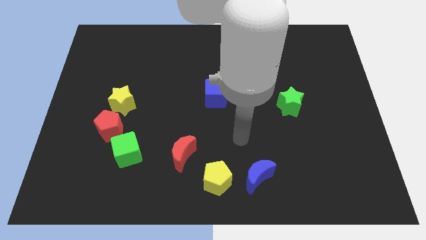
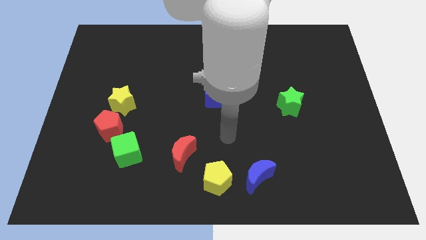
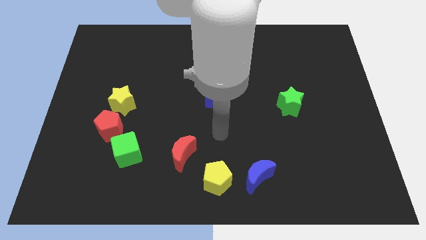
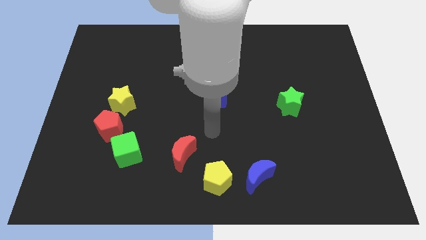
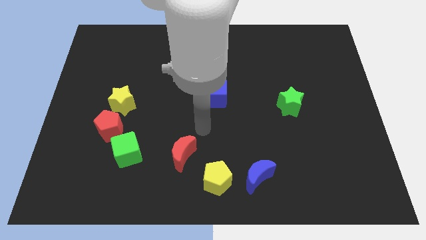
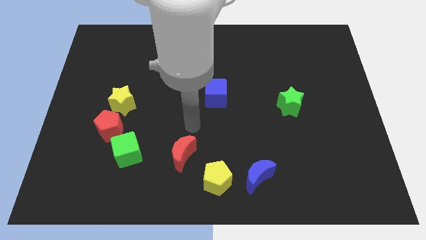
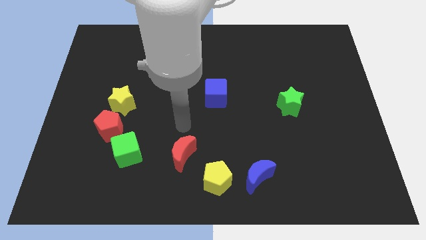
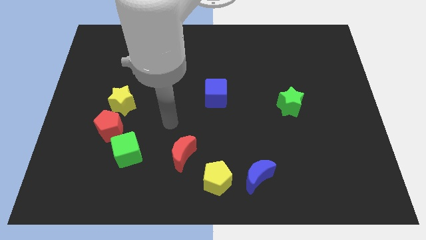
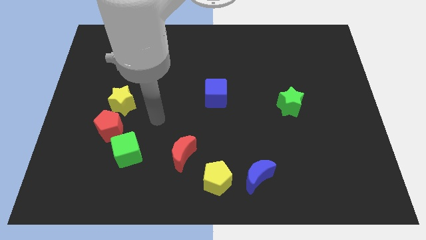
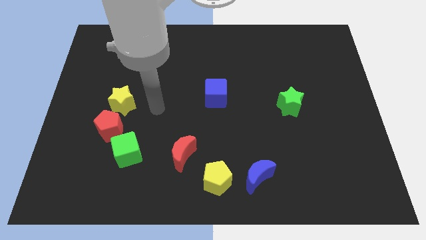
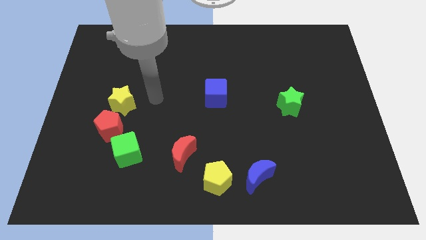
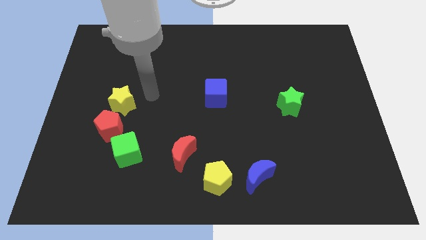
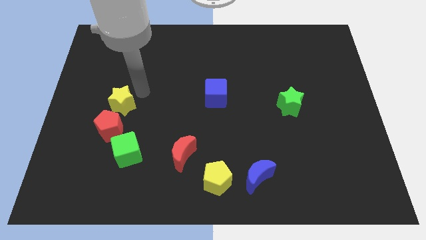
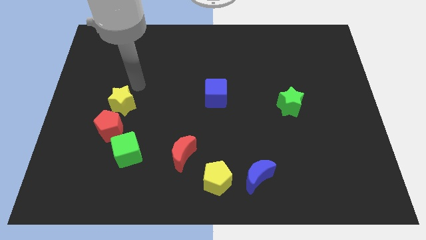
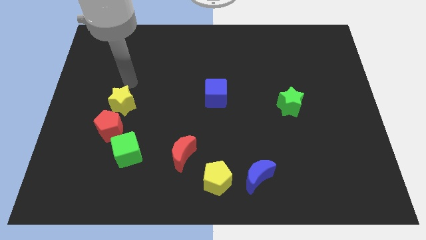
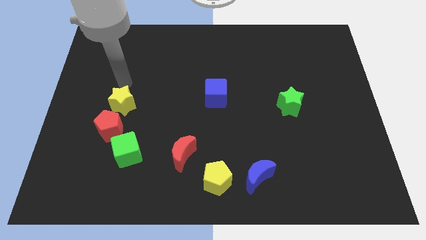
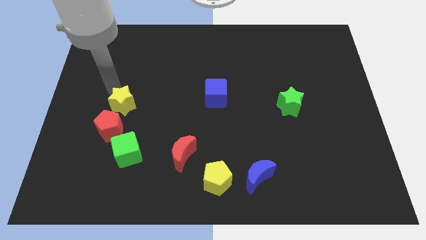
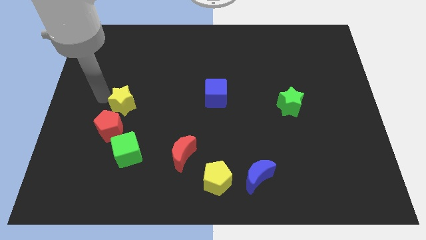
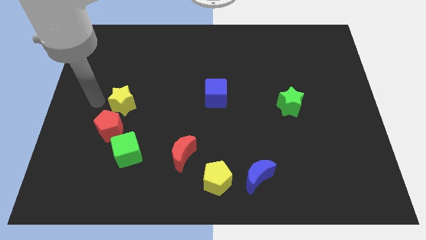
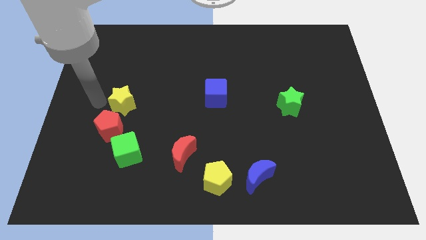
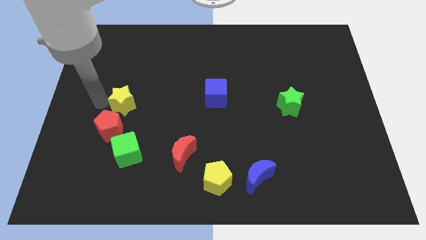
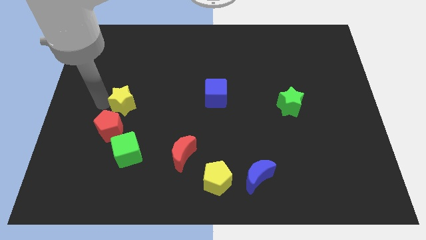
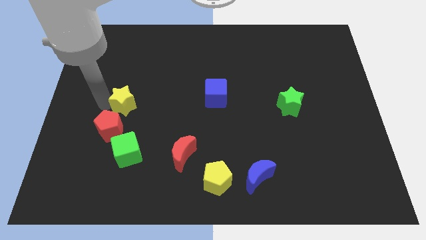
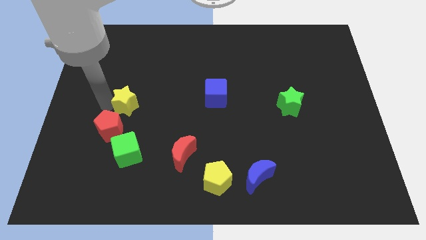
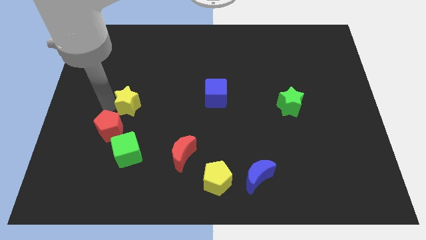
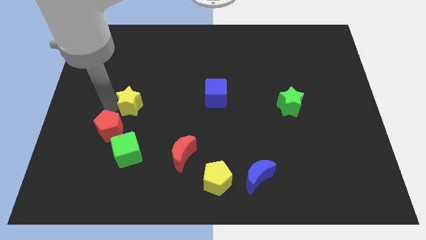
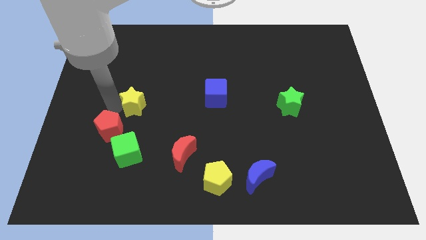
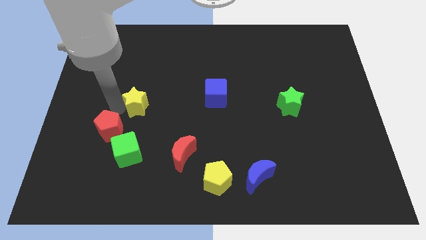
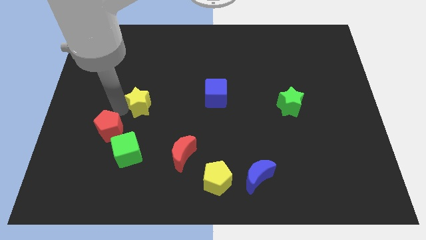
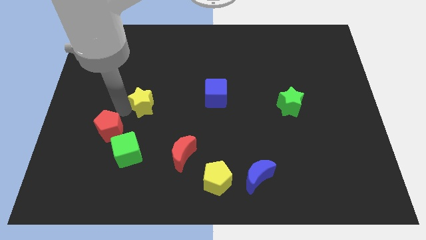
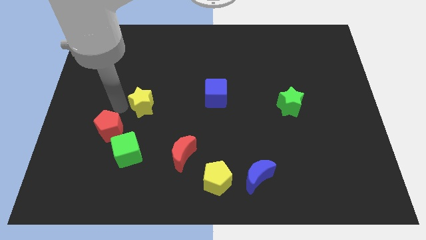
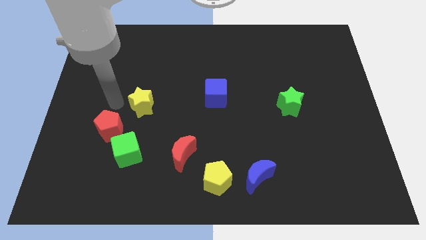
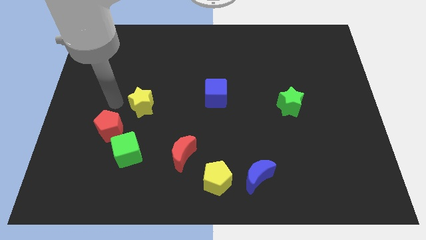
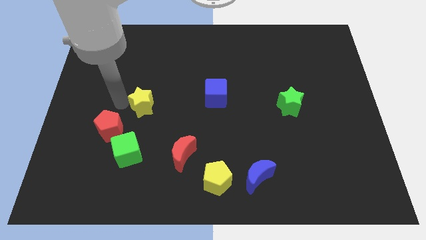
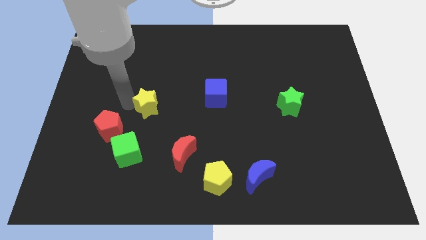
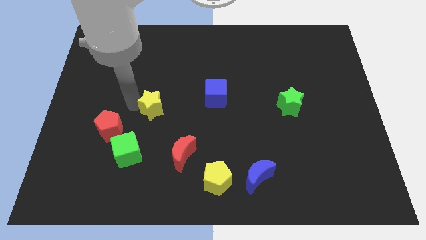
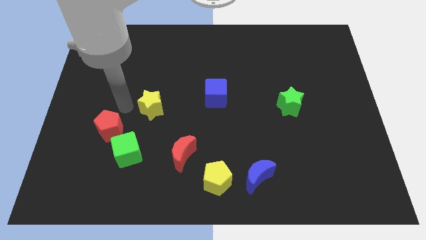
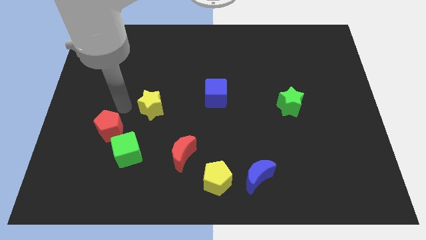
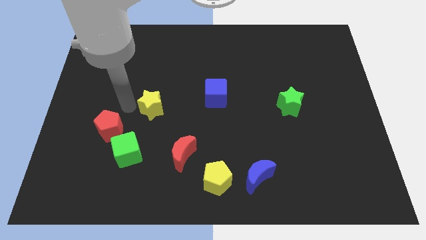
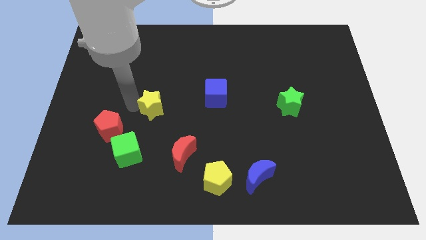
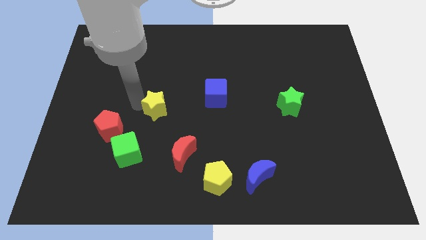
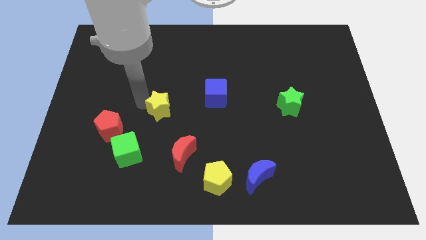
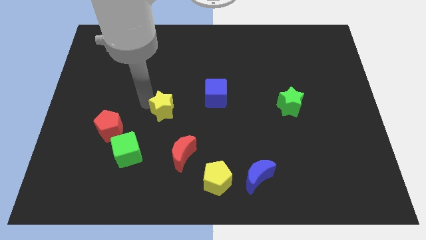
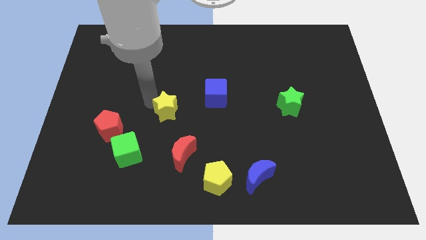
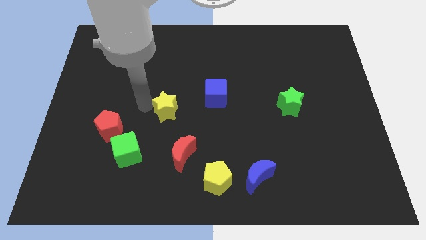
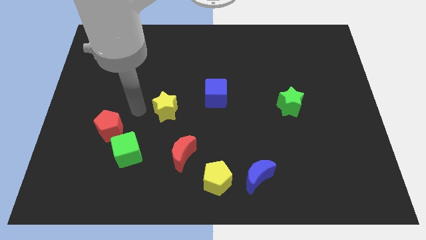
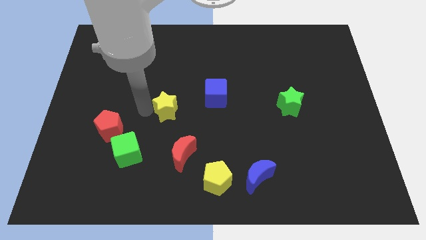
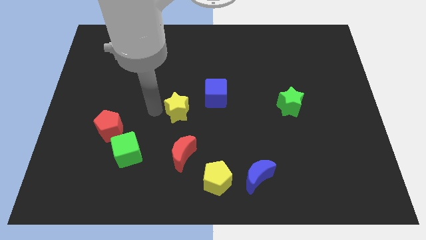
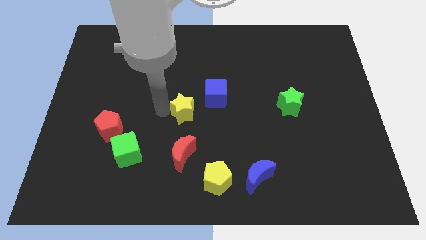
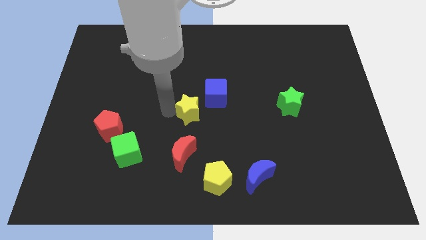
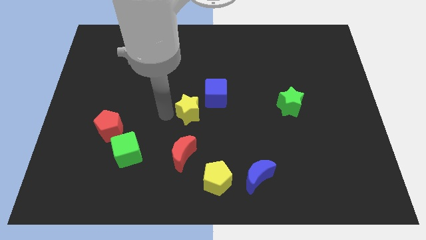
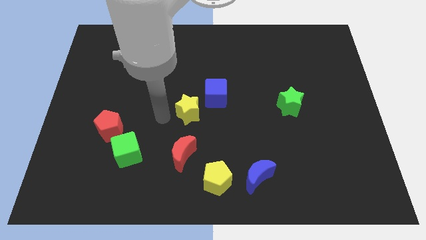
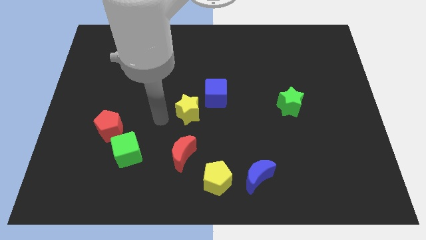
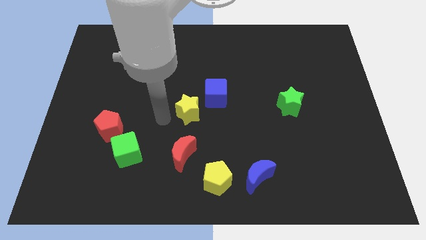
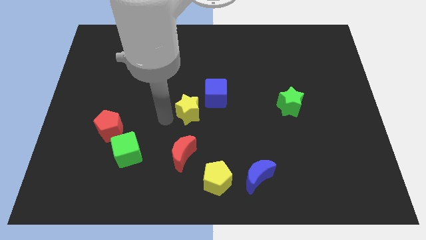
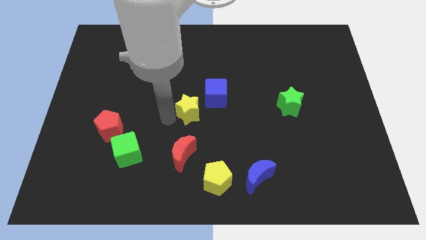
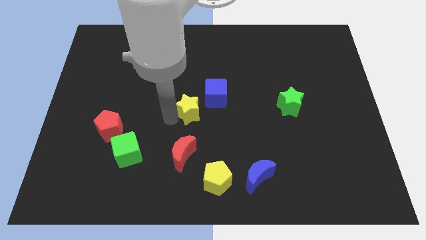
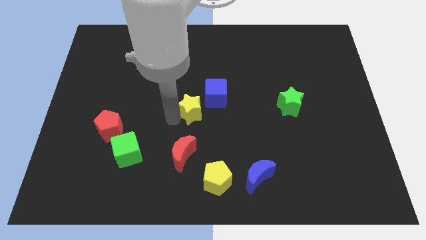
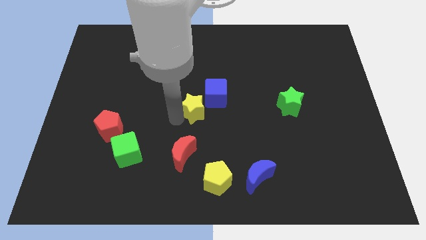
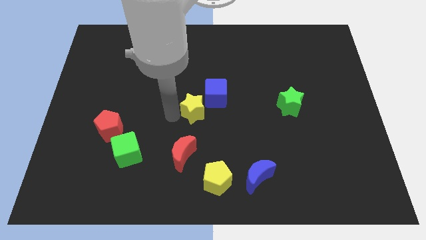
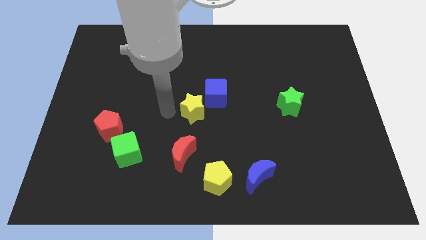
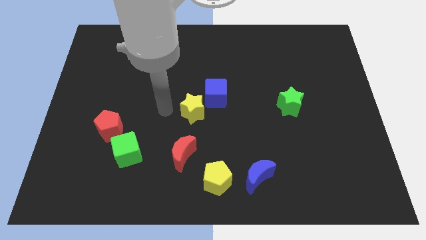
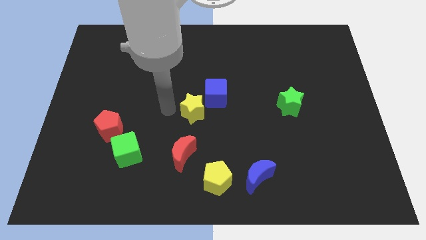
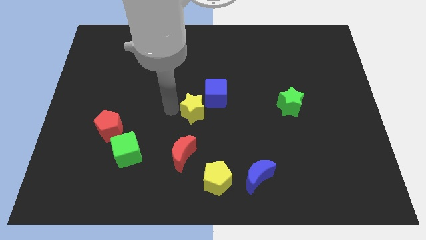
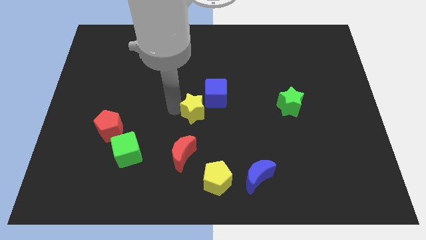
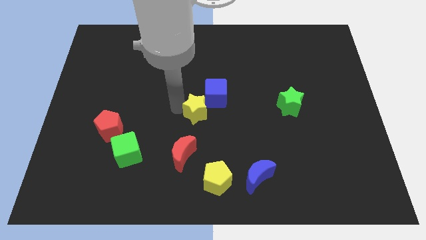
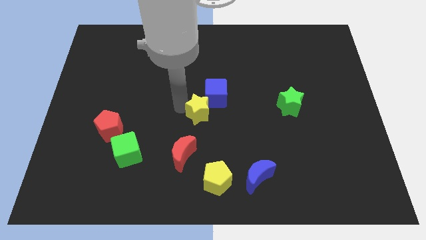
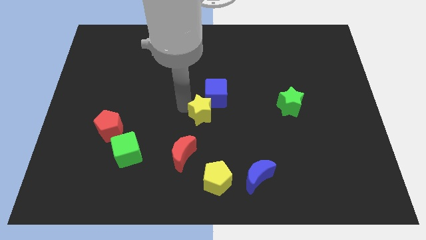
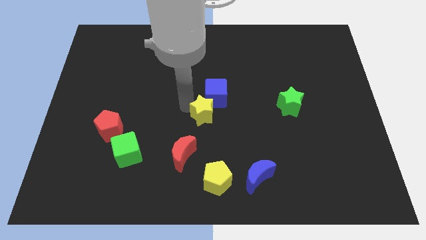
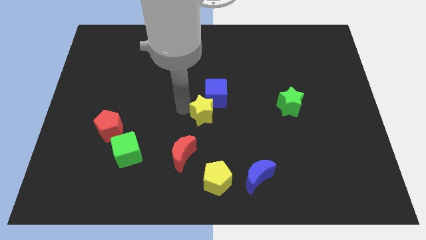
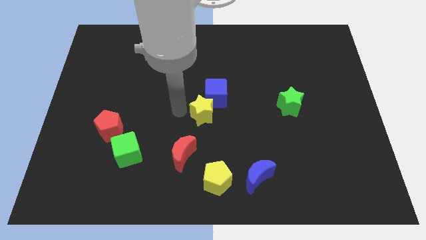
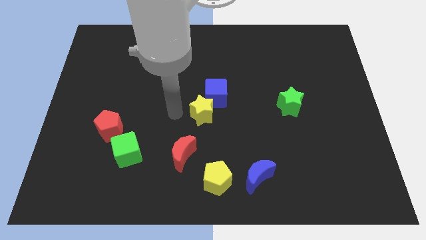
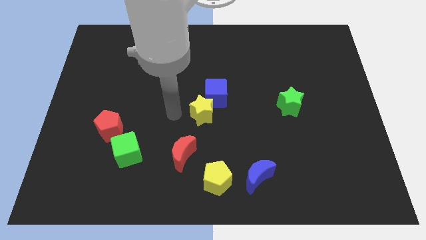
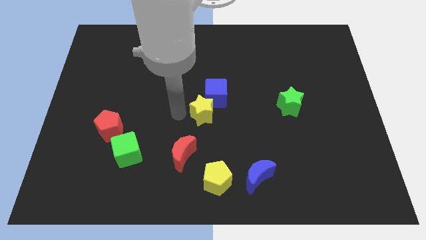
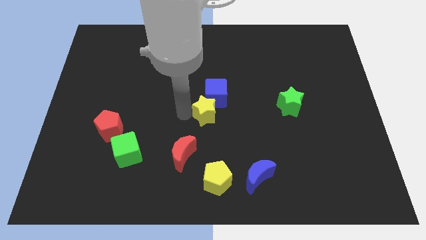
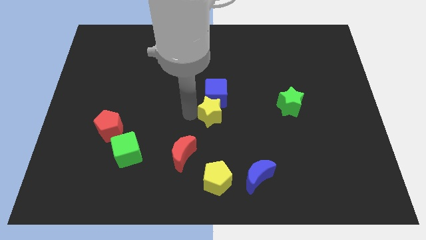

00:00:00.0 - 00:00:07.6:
move the yellow star to the bottom right of the blue cube
